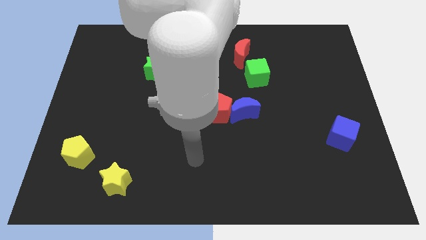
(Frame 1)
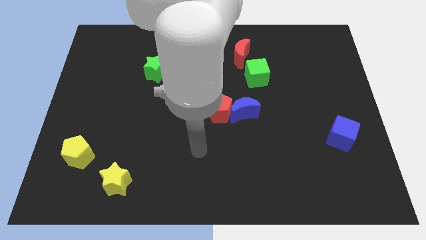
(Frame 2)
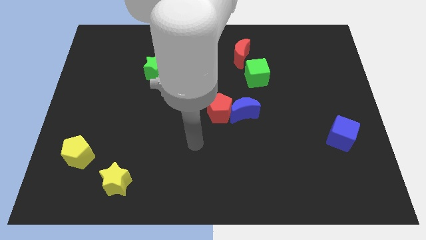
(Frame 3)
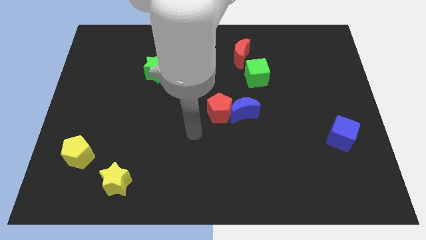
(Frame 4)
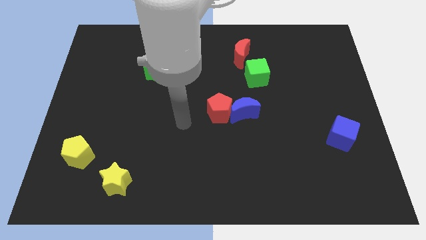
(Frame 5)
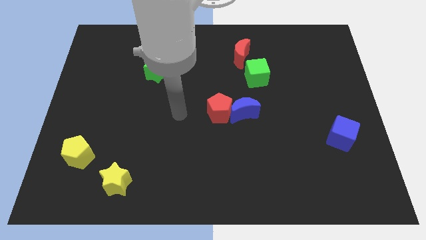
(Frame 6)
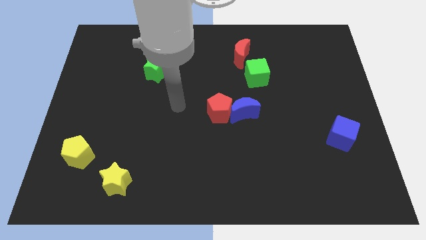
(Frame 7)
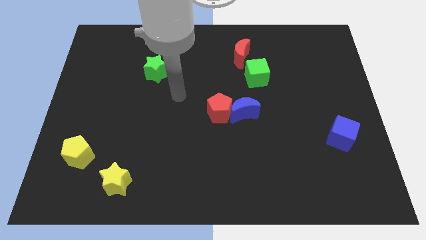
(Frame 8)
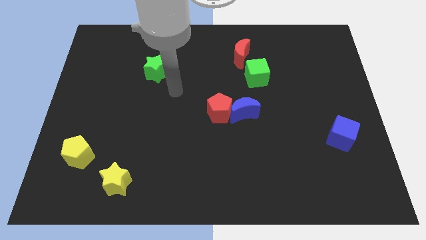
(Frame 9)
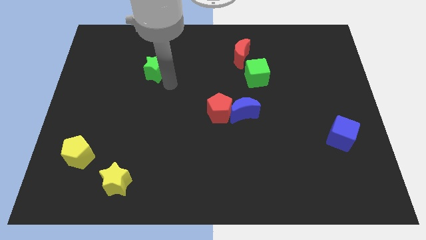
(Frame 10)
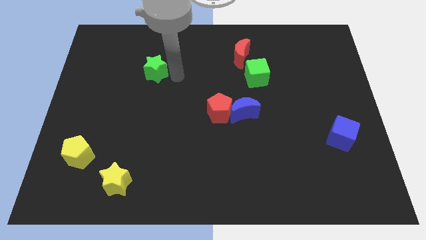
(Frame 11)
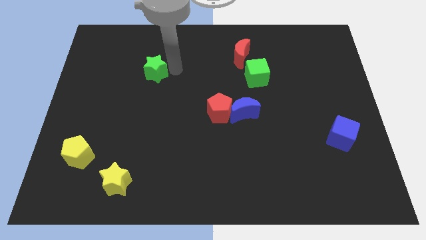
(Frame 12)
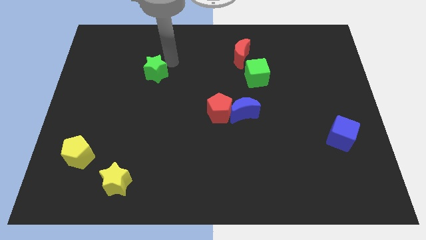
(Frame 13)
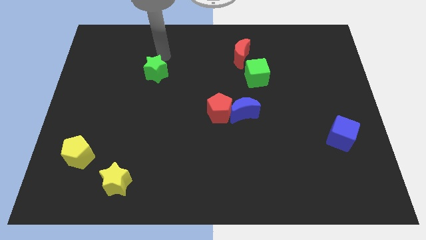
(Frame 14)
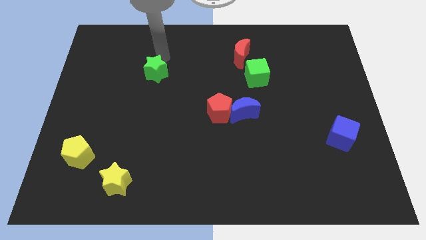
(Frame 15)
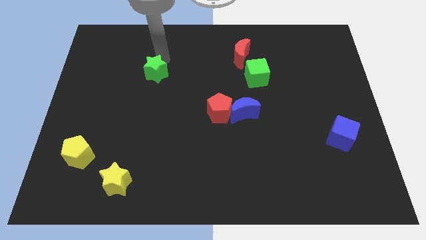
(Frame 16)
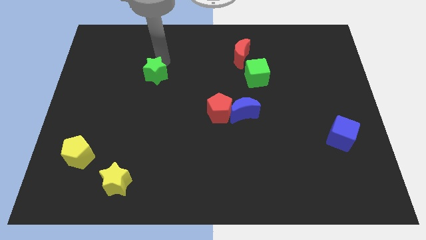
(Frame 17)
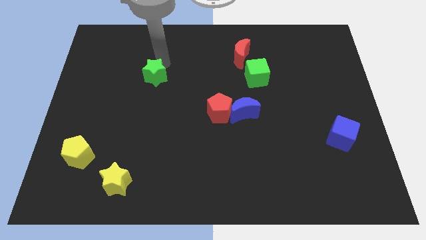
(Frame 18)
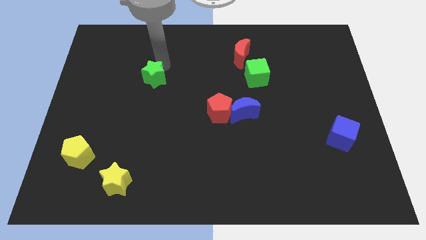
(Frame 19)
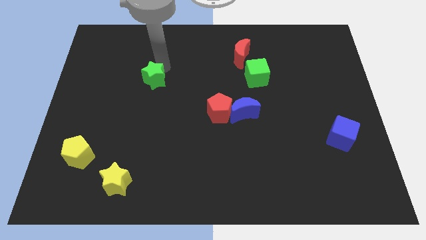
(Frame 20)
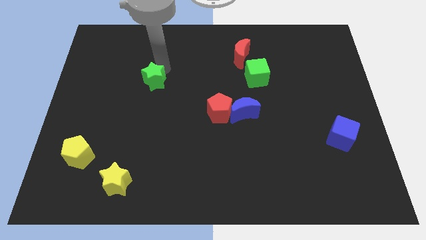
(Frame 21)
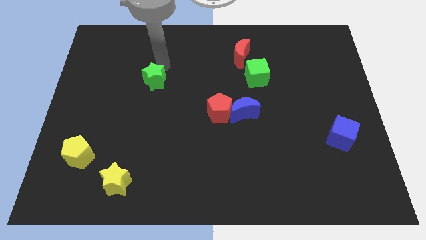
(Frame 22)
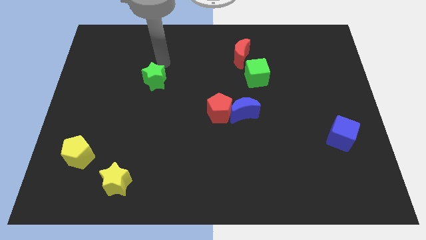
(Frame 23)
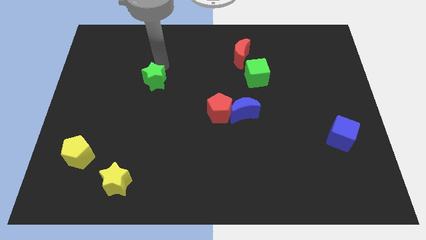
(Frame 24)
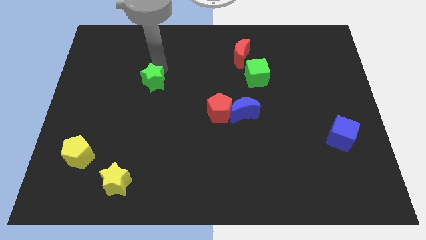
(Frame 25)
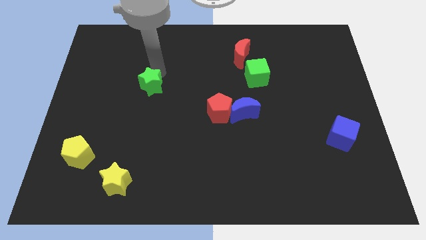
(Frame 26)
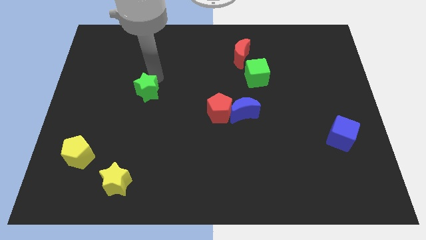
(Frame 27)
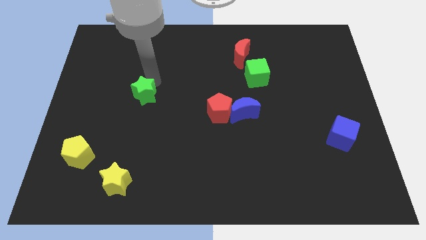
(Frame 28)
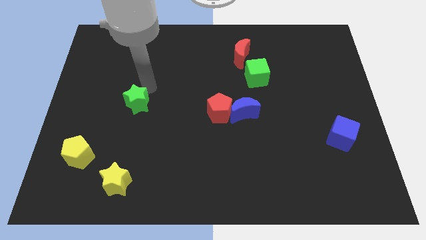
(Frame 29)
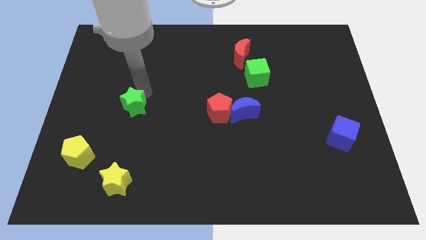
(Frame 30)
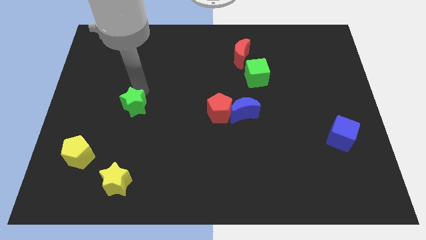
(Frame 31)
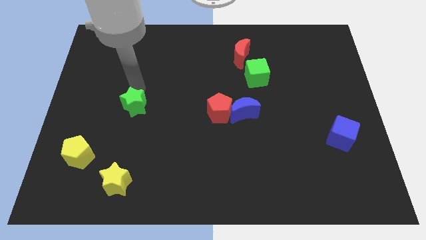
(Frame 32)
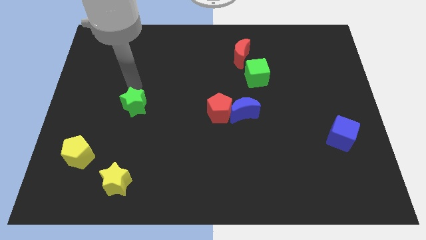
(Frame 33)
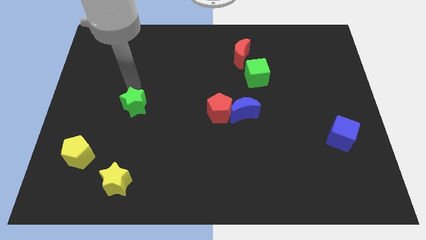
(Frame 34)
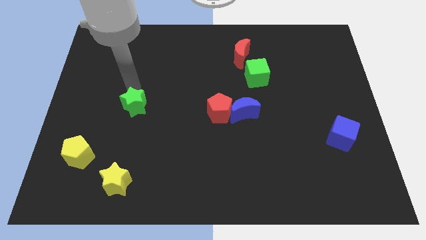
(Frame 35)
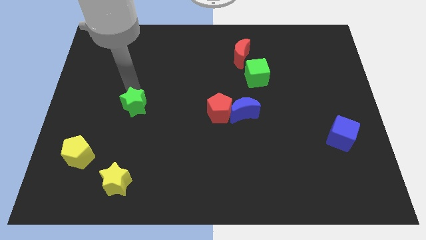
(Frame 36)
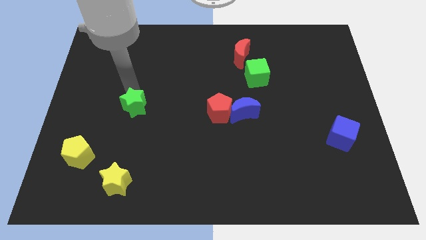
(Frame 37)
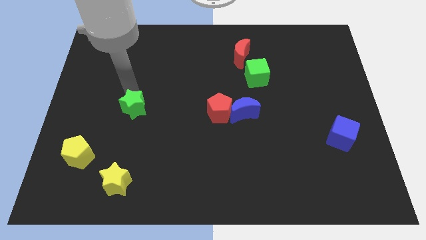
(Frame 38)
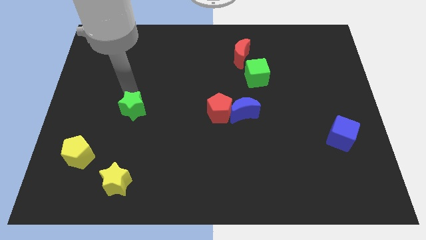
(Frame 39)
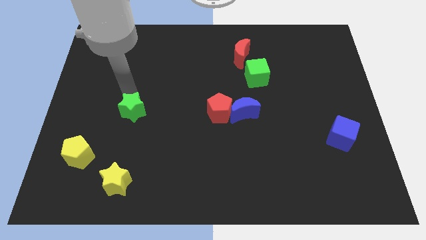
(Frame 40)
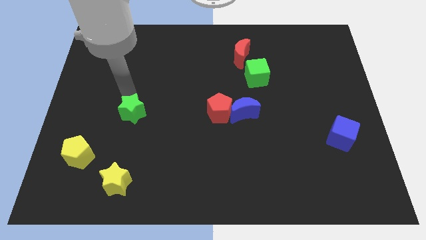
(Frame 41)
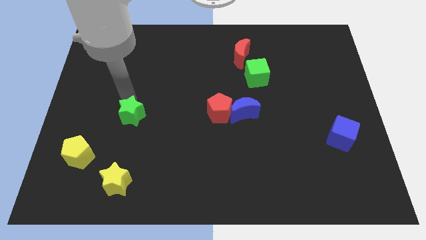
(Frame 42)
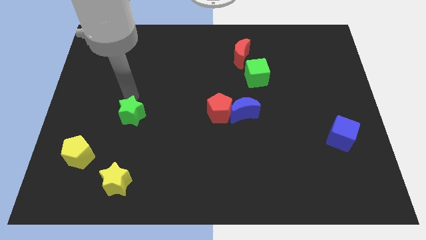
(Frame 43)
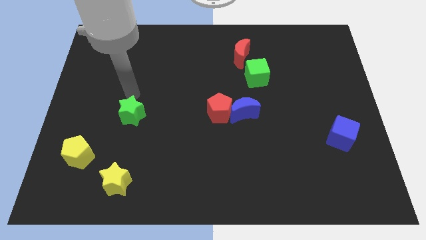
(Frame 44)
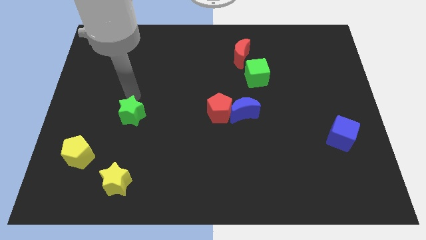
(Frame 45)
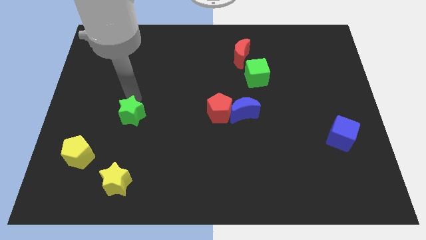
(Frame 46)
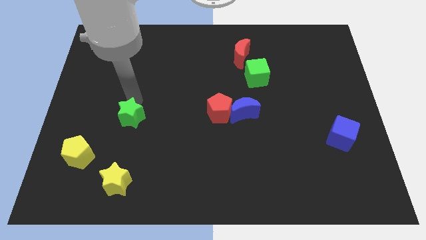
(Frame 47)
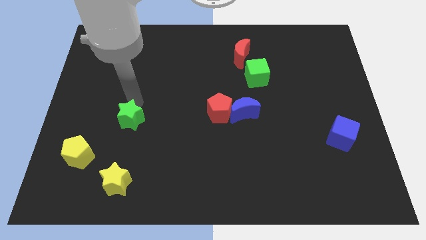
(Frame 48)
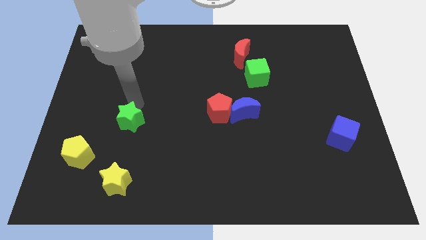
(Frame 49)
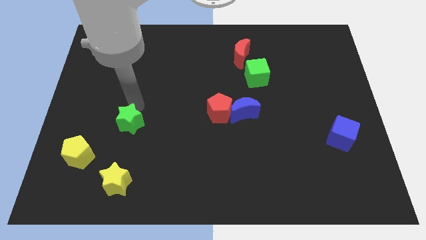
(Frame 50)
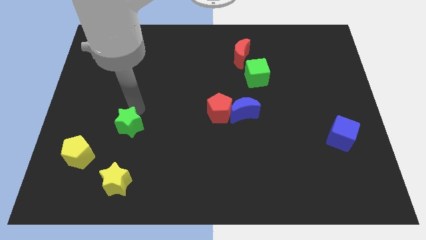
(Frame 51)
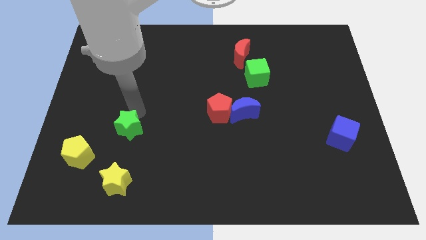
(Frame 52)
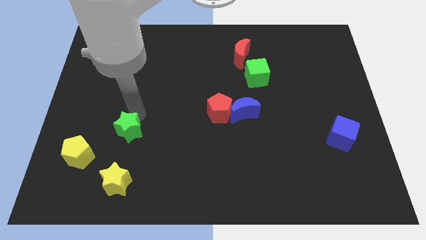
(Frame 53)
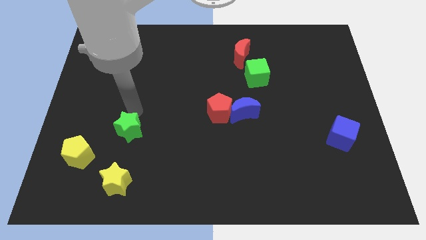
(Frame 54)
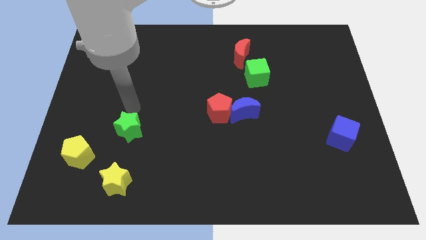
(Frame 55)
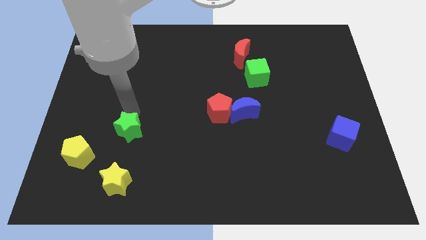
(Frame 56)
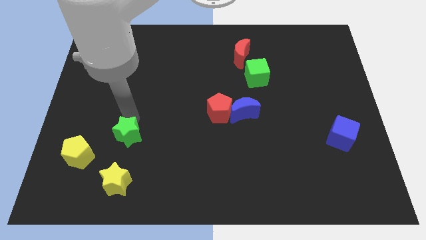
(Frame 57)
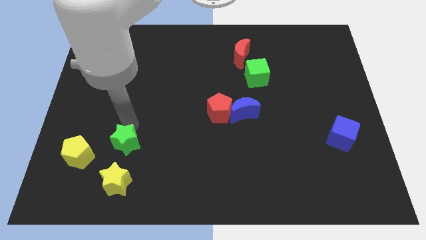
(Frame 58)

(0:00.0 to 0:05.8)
move the green star to the right of the yellow pentagon

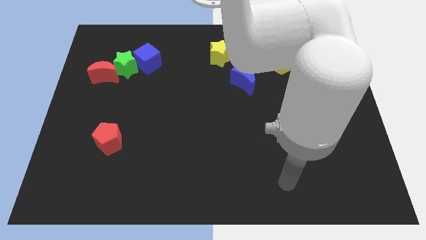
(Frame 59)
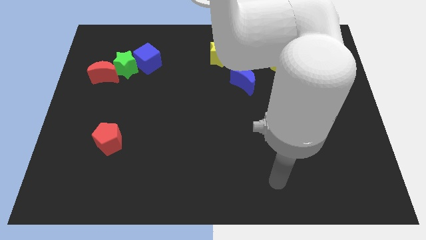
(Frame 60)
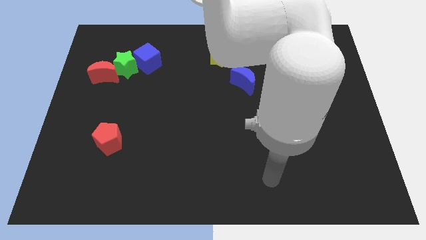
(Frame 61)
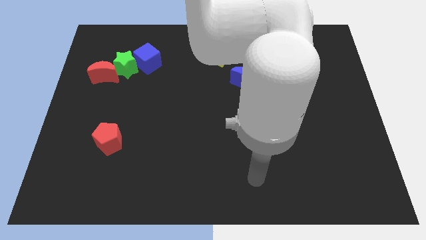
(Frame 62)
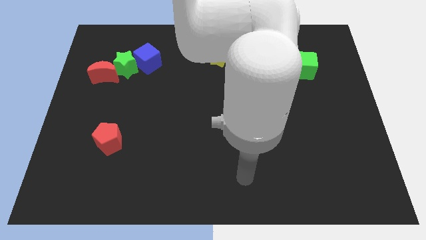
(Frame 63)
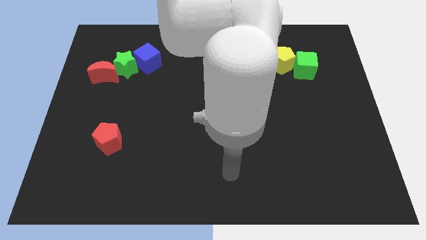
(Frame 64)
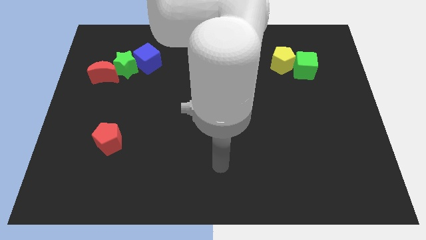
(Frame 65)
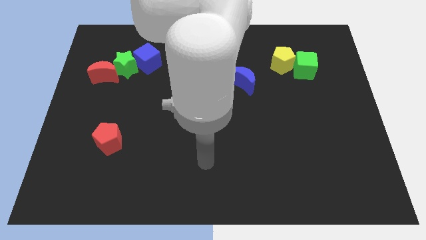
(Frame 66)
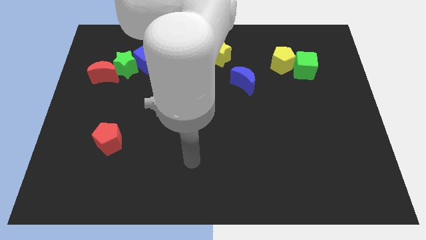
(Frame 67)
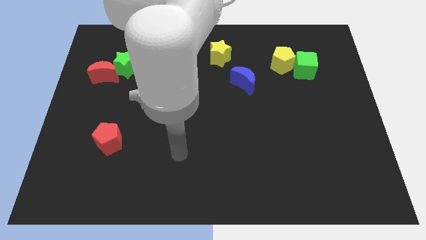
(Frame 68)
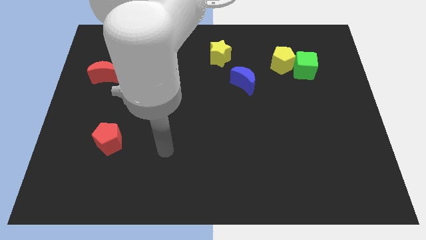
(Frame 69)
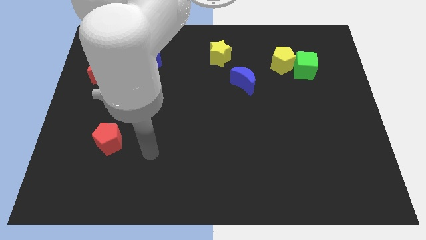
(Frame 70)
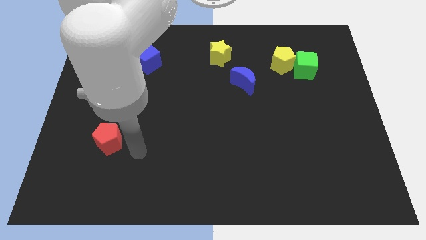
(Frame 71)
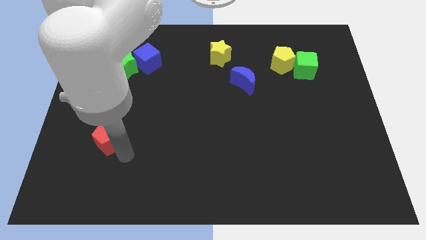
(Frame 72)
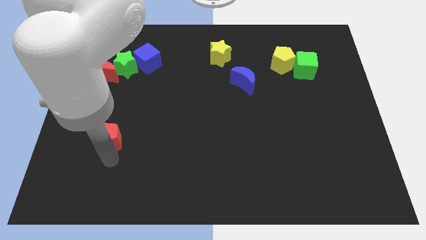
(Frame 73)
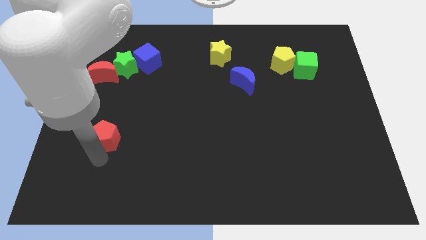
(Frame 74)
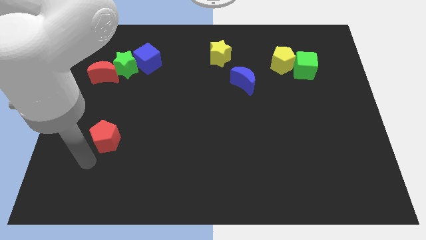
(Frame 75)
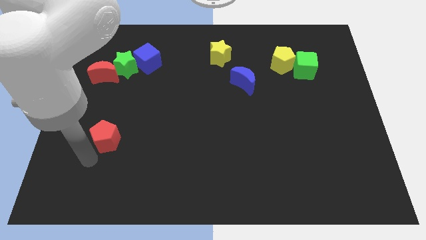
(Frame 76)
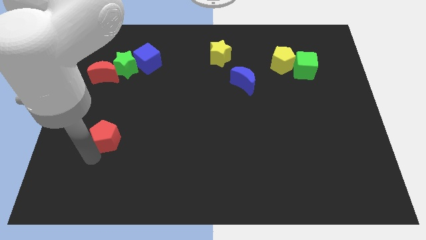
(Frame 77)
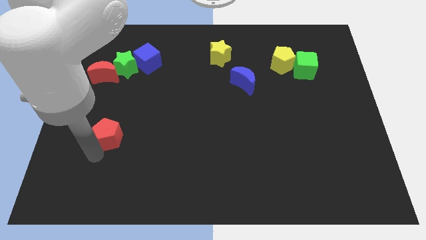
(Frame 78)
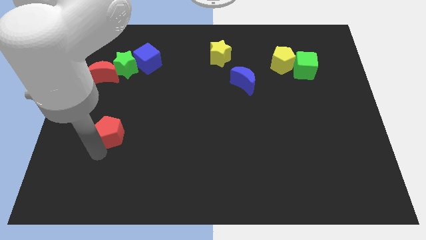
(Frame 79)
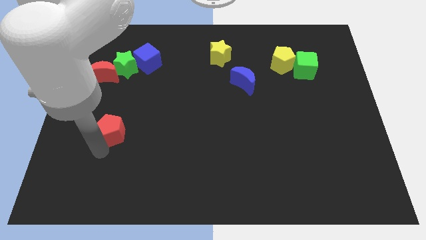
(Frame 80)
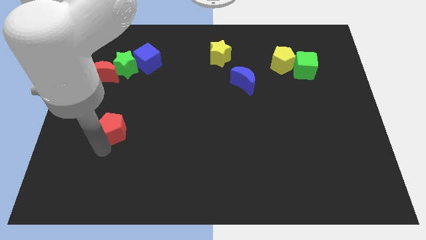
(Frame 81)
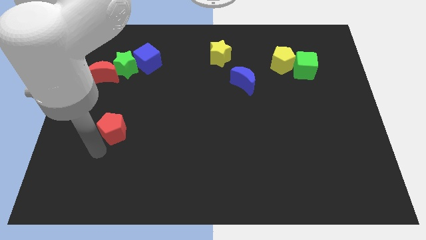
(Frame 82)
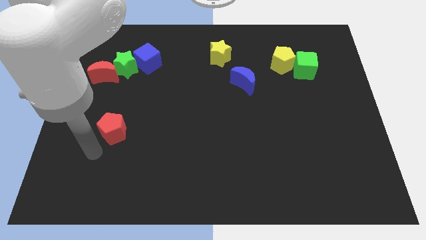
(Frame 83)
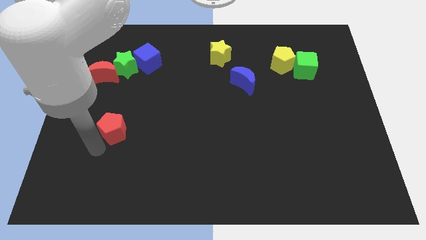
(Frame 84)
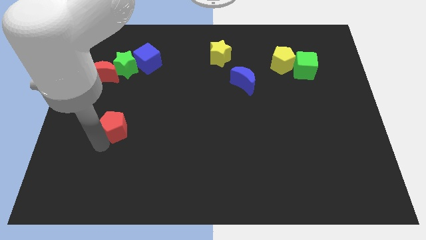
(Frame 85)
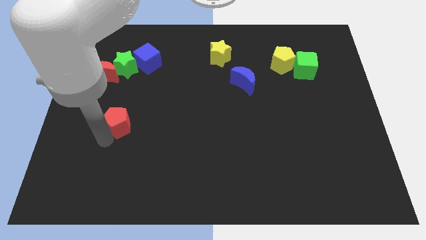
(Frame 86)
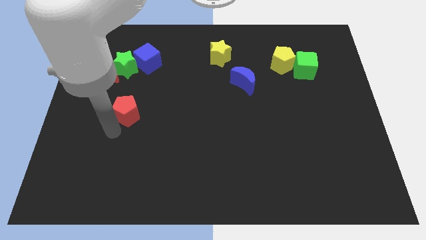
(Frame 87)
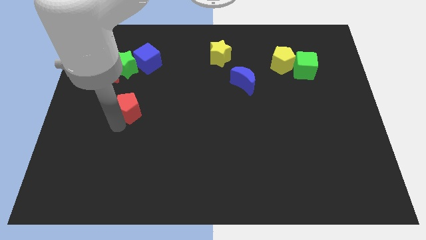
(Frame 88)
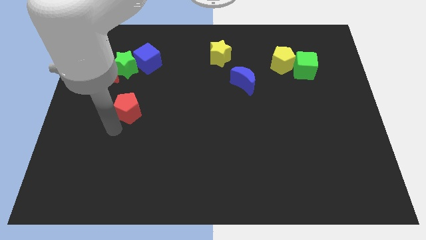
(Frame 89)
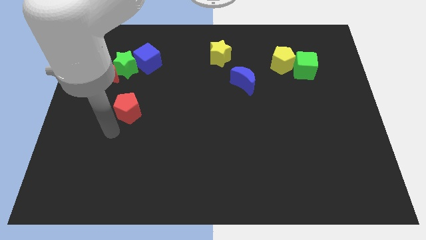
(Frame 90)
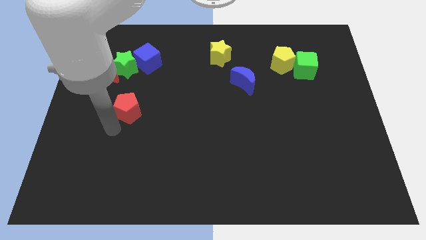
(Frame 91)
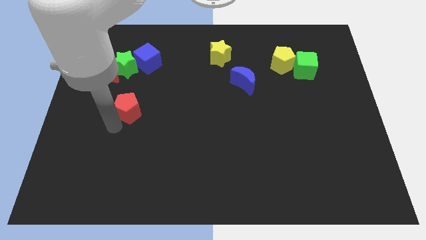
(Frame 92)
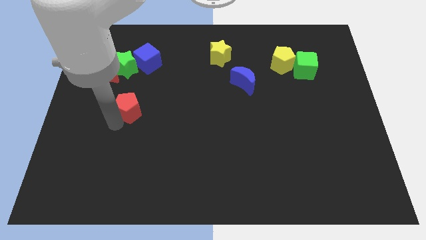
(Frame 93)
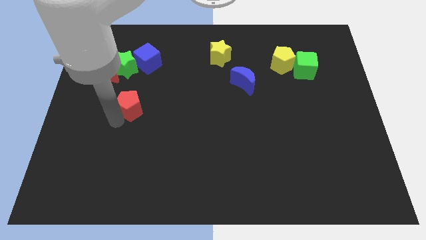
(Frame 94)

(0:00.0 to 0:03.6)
put the red pentagon below the blue cube
